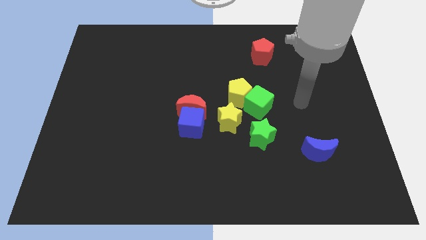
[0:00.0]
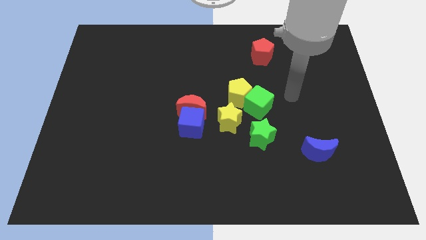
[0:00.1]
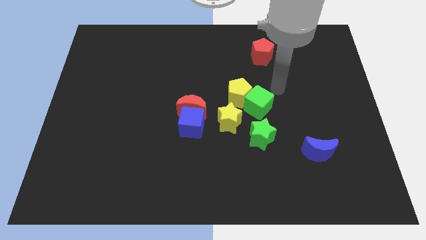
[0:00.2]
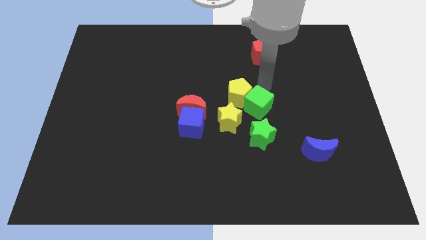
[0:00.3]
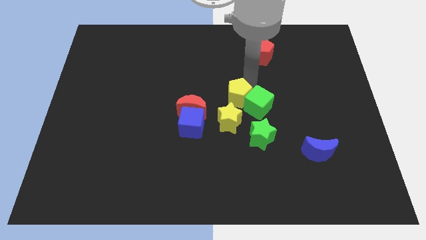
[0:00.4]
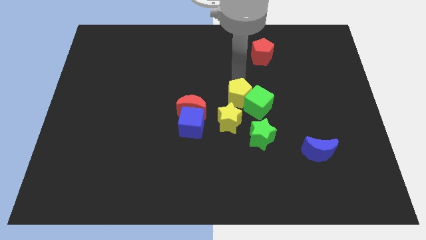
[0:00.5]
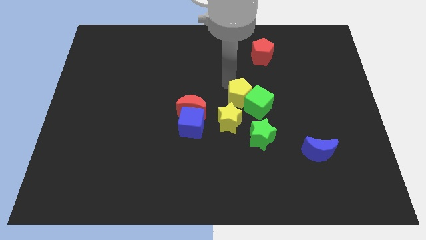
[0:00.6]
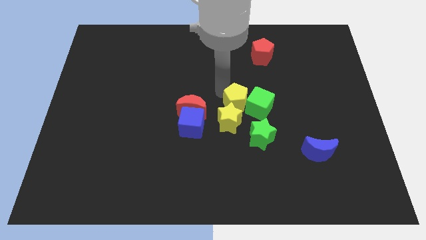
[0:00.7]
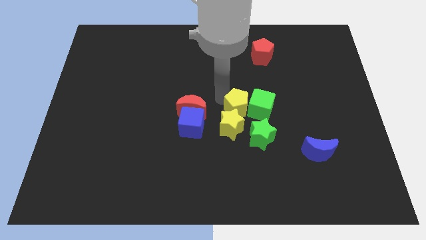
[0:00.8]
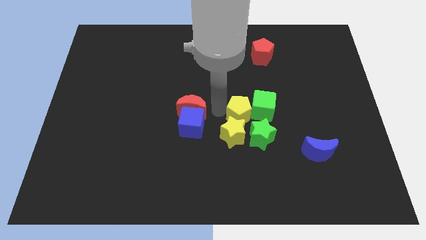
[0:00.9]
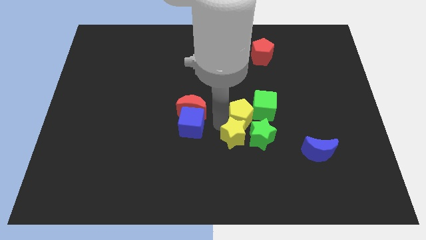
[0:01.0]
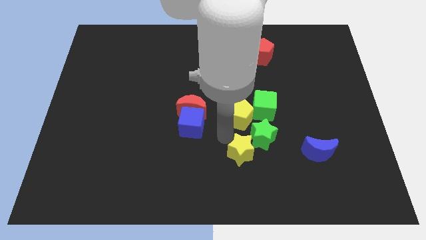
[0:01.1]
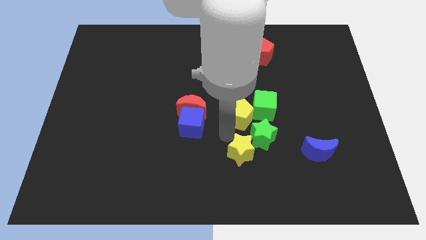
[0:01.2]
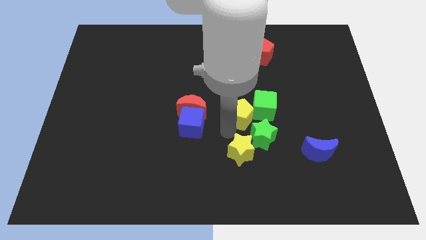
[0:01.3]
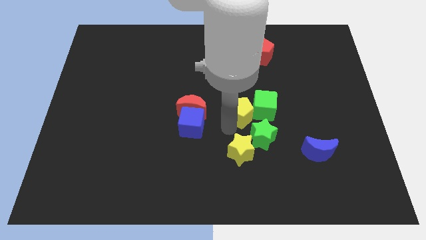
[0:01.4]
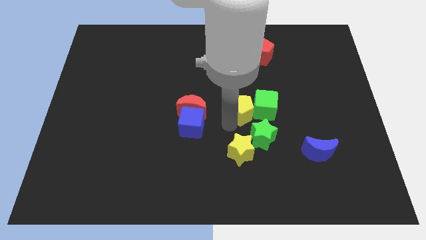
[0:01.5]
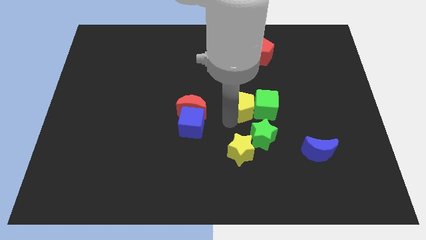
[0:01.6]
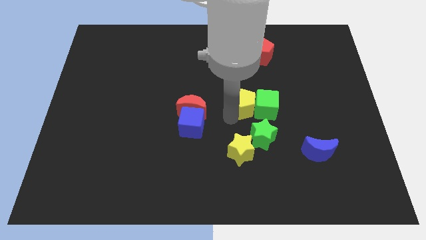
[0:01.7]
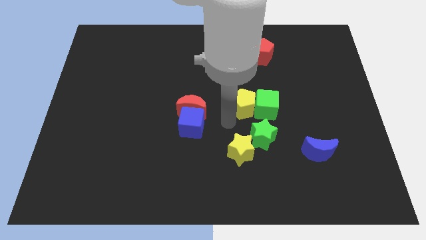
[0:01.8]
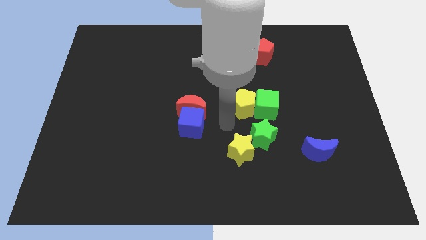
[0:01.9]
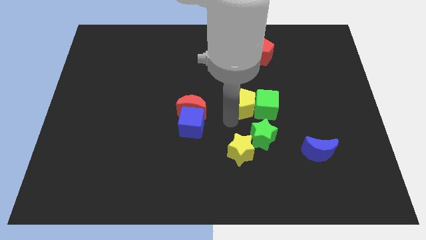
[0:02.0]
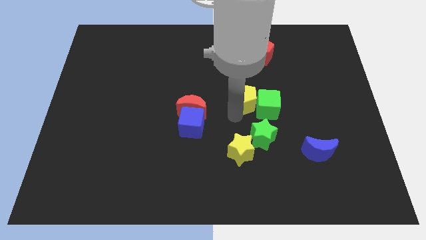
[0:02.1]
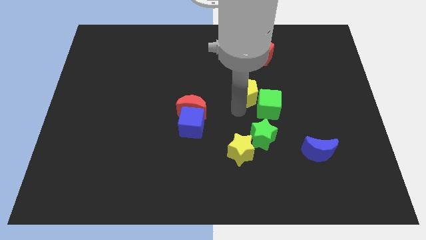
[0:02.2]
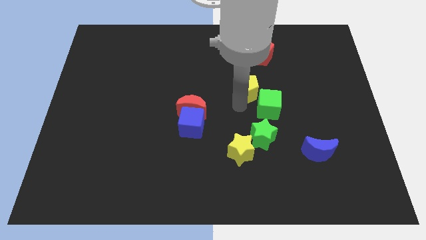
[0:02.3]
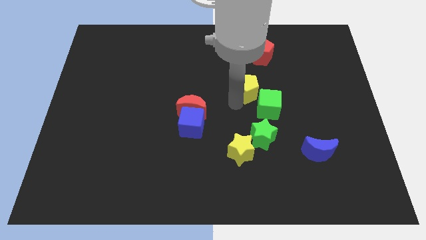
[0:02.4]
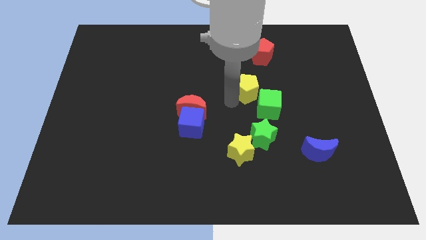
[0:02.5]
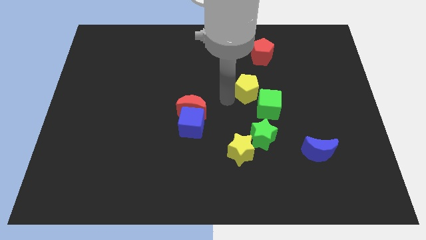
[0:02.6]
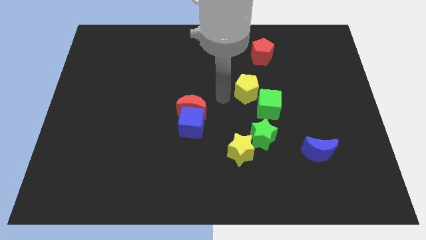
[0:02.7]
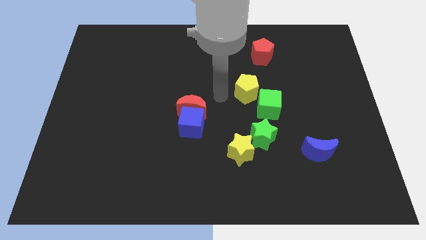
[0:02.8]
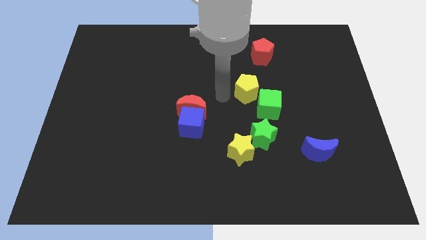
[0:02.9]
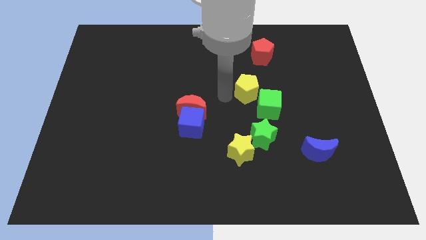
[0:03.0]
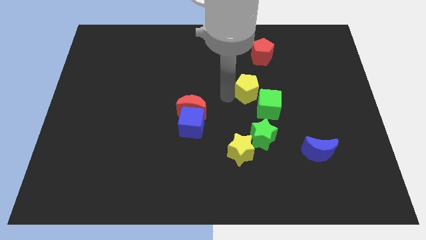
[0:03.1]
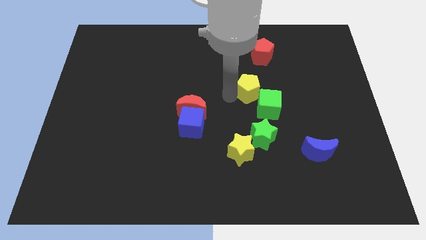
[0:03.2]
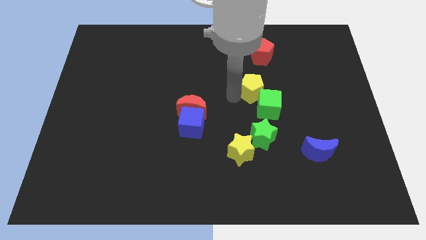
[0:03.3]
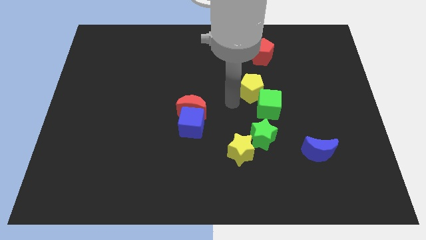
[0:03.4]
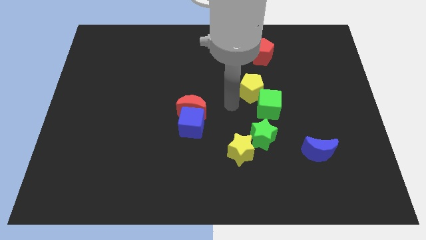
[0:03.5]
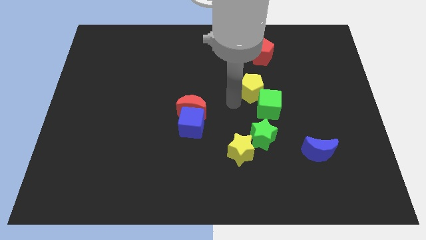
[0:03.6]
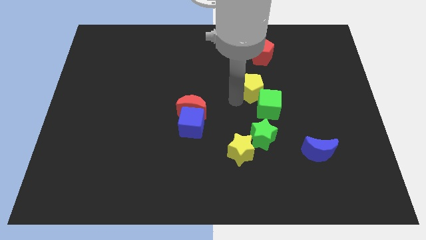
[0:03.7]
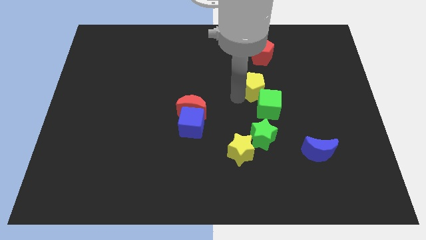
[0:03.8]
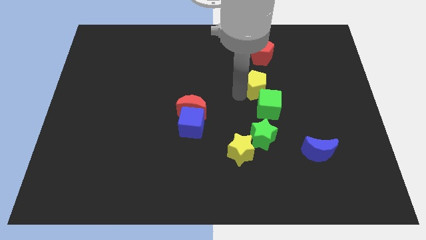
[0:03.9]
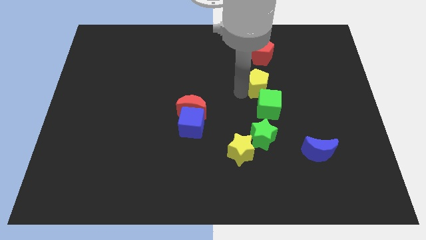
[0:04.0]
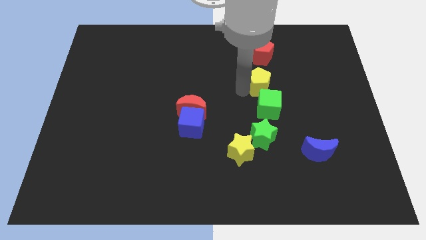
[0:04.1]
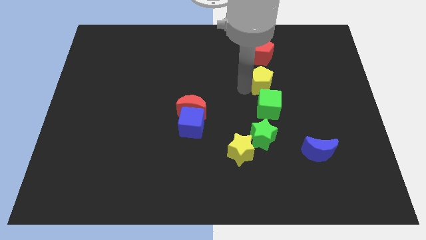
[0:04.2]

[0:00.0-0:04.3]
slightly push the yellow pentagon up and then to the right

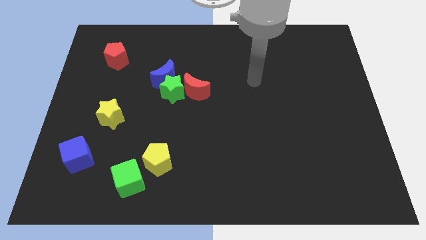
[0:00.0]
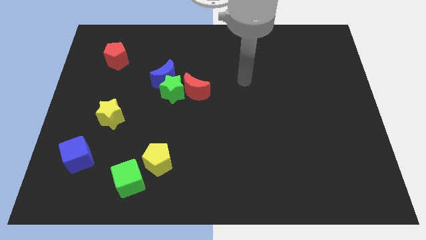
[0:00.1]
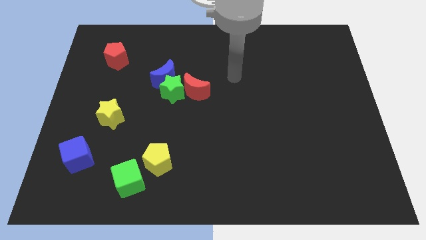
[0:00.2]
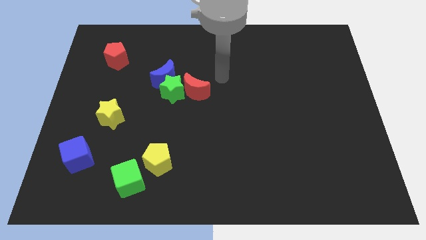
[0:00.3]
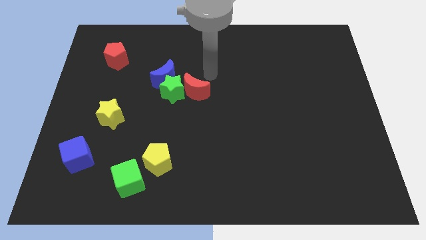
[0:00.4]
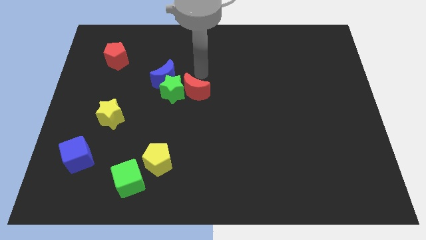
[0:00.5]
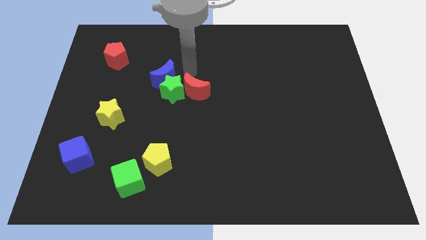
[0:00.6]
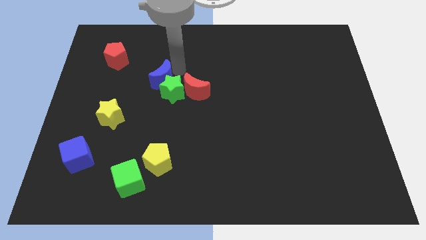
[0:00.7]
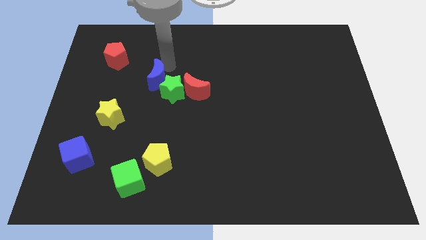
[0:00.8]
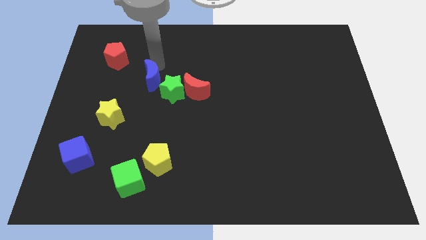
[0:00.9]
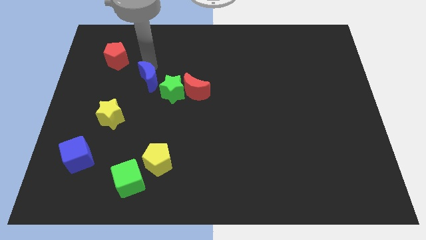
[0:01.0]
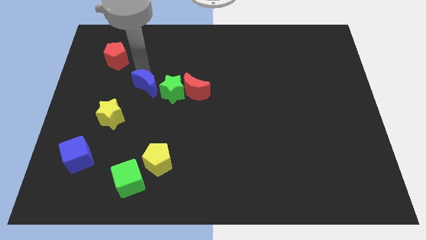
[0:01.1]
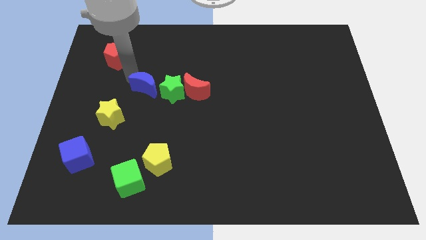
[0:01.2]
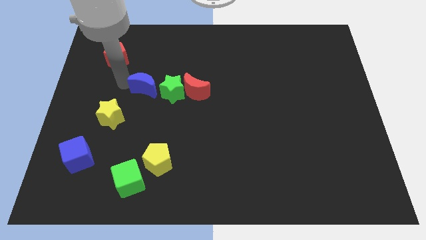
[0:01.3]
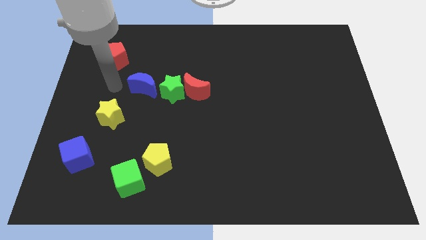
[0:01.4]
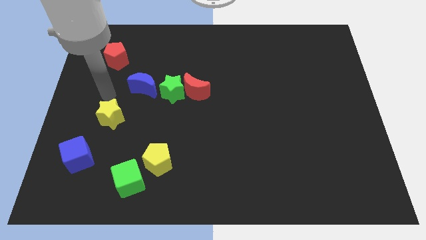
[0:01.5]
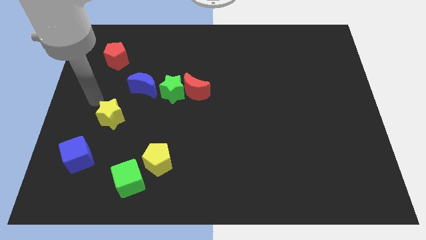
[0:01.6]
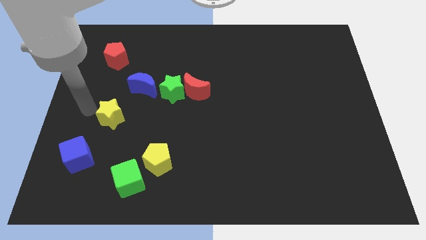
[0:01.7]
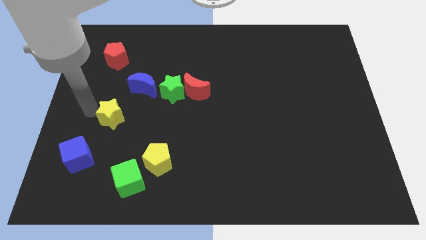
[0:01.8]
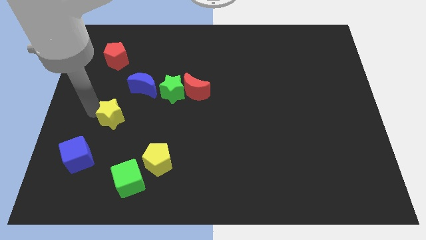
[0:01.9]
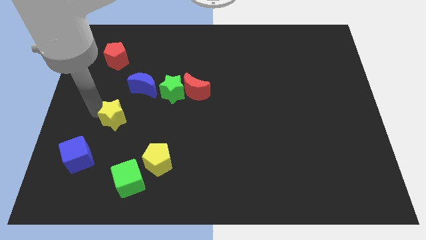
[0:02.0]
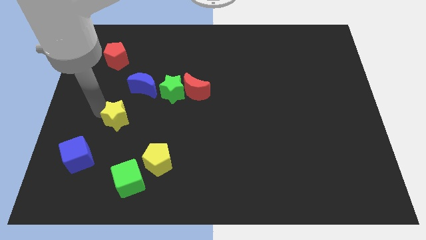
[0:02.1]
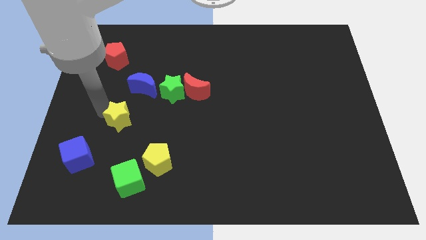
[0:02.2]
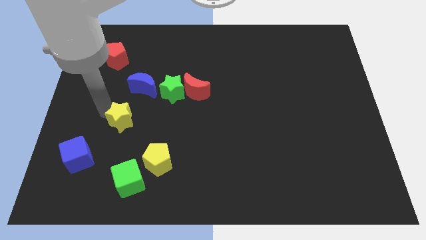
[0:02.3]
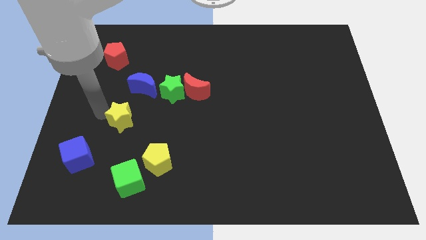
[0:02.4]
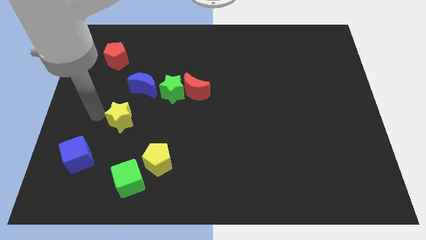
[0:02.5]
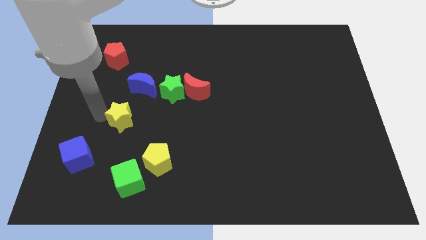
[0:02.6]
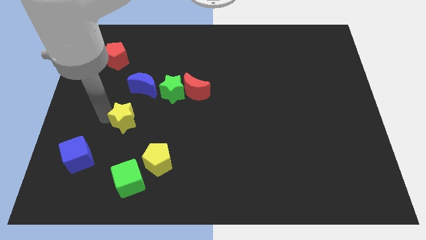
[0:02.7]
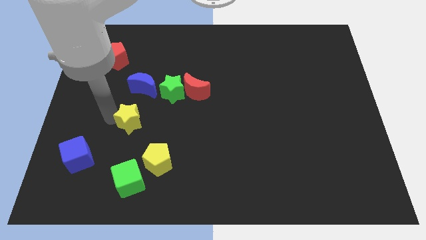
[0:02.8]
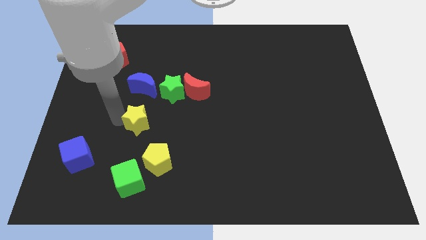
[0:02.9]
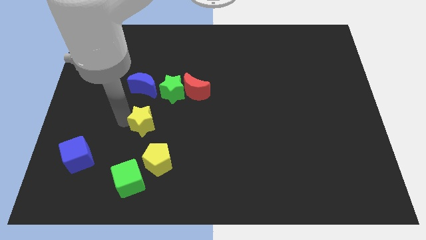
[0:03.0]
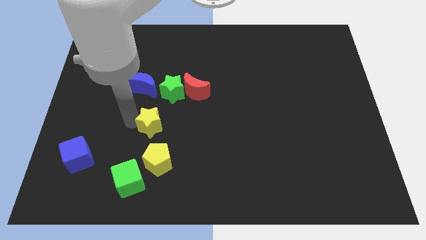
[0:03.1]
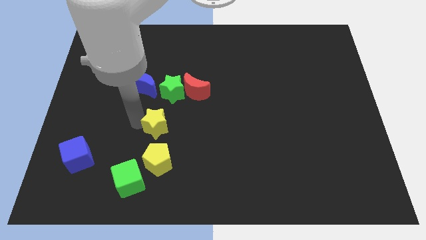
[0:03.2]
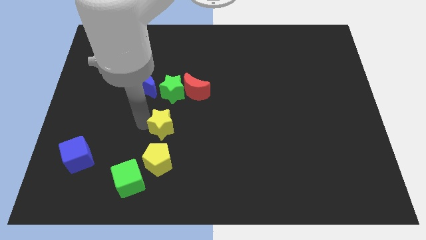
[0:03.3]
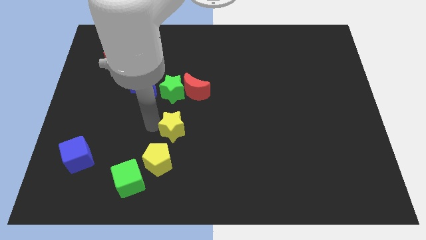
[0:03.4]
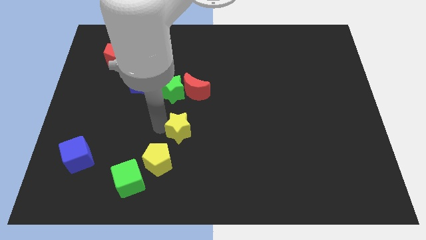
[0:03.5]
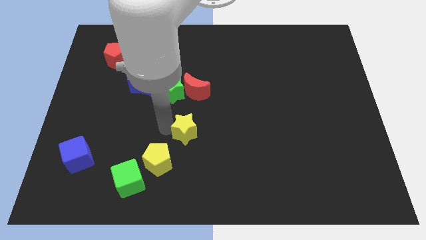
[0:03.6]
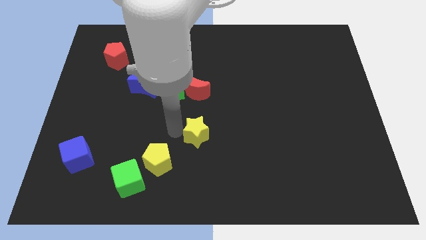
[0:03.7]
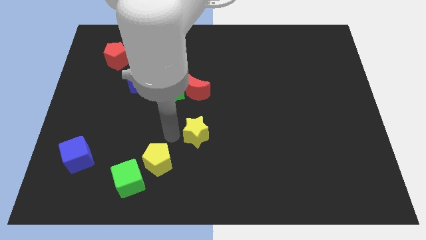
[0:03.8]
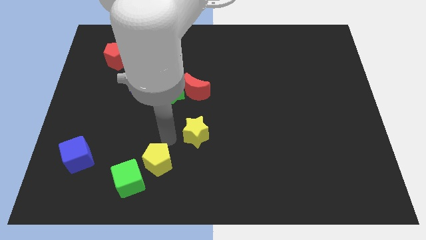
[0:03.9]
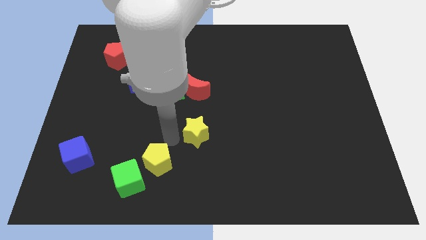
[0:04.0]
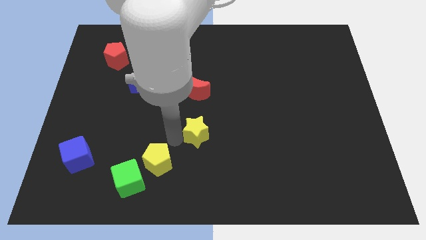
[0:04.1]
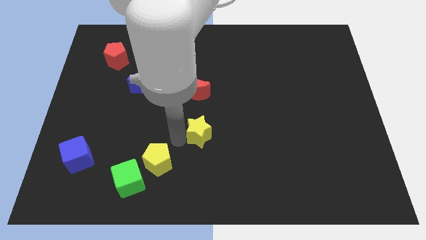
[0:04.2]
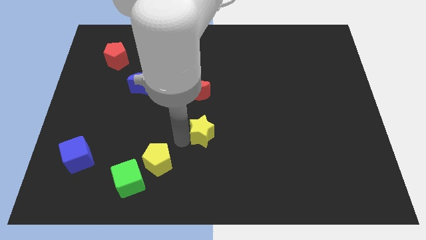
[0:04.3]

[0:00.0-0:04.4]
push the yellow star right
